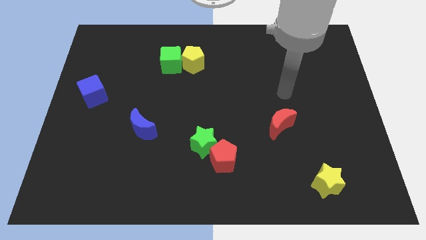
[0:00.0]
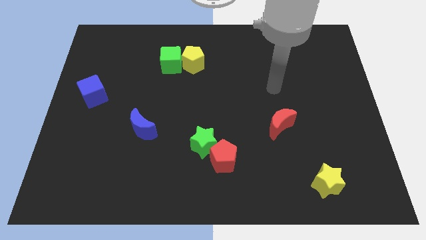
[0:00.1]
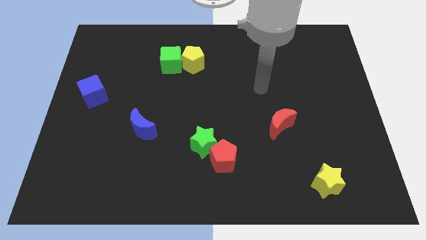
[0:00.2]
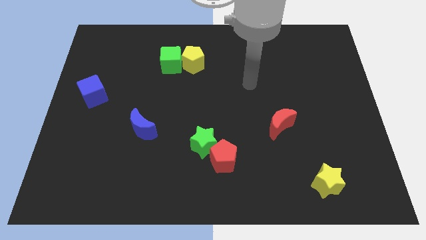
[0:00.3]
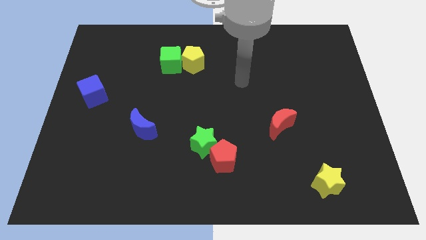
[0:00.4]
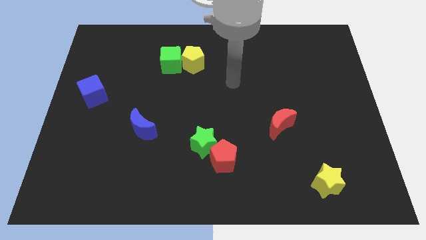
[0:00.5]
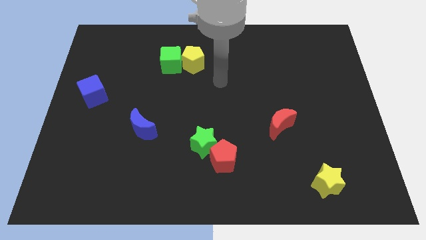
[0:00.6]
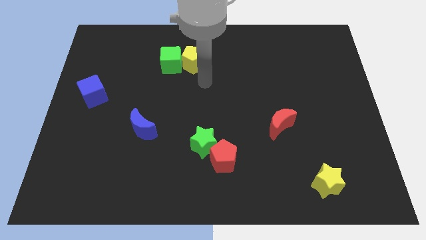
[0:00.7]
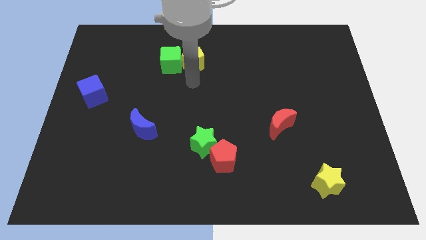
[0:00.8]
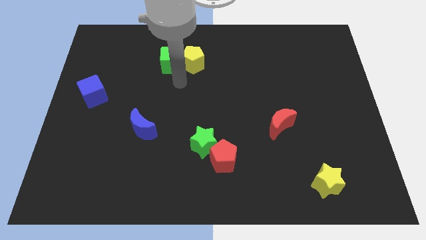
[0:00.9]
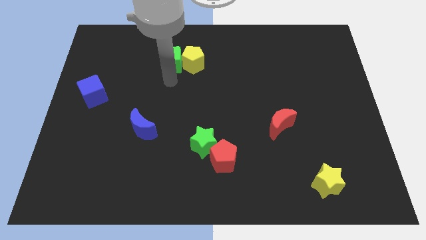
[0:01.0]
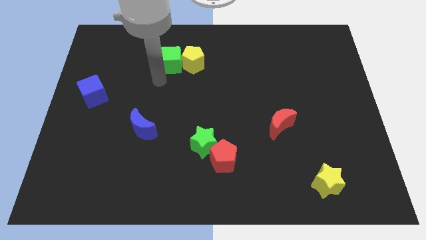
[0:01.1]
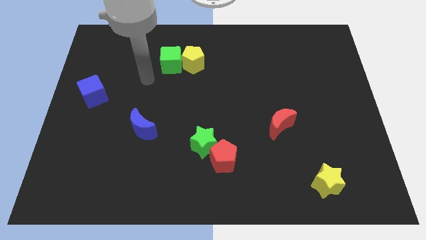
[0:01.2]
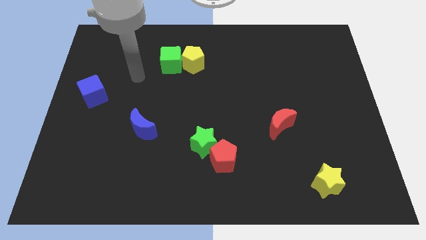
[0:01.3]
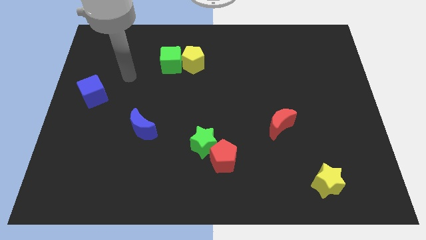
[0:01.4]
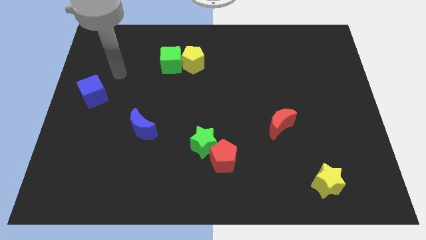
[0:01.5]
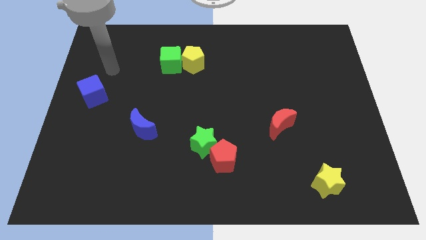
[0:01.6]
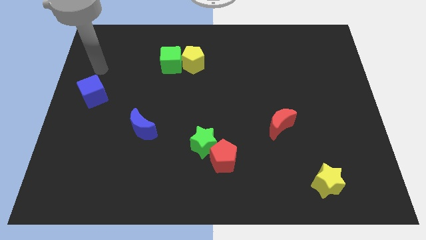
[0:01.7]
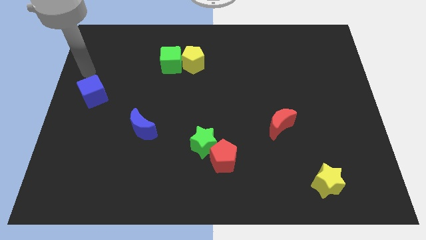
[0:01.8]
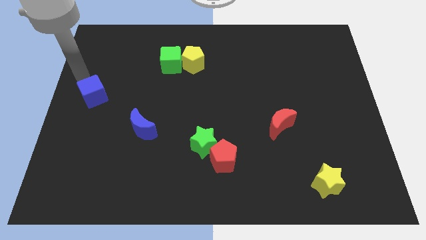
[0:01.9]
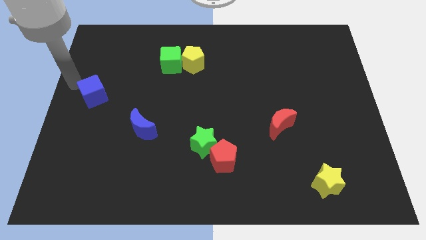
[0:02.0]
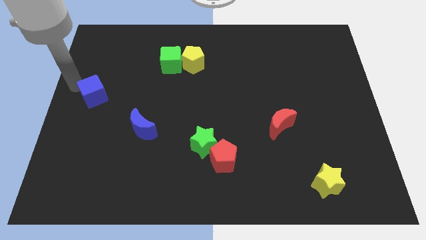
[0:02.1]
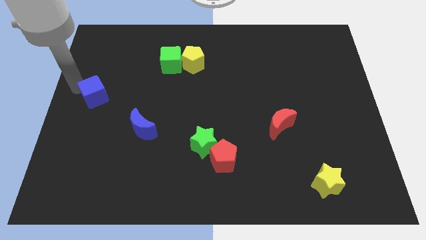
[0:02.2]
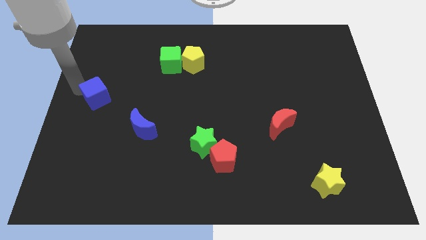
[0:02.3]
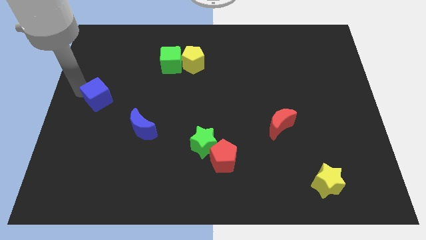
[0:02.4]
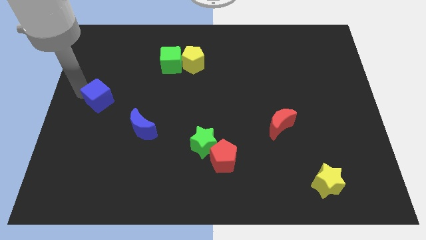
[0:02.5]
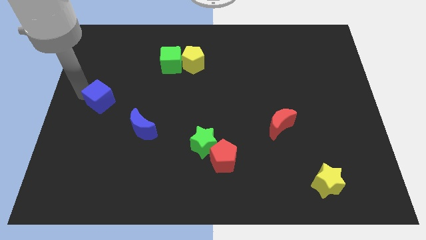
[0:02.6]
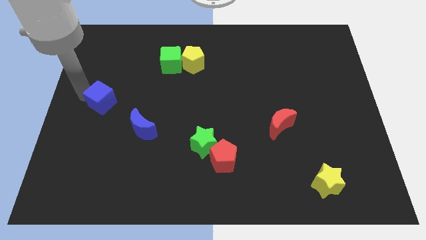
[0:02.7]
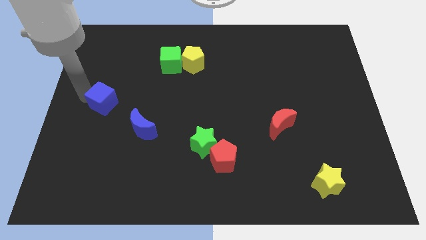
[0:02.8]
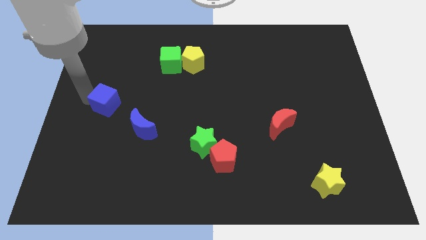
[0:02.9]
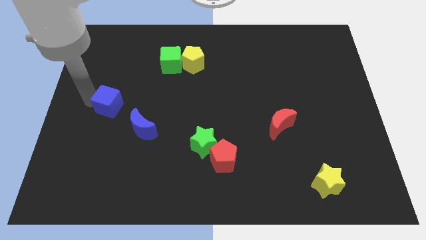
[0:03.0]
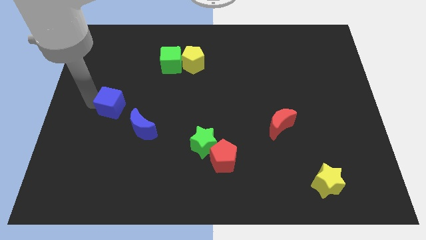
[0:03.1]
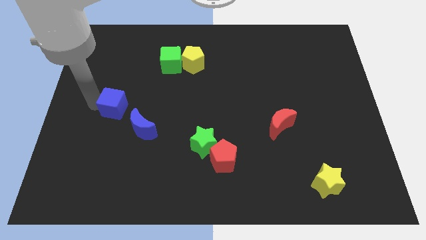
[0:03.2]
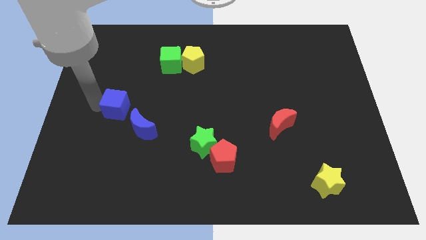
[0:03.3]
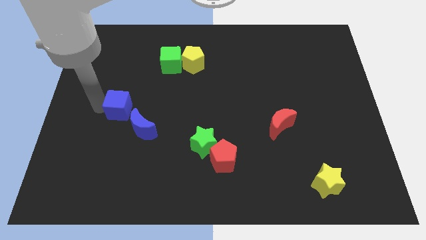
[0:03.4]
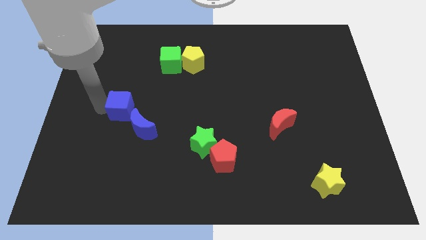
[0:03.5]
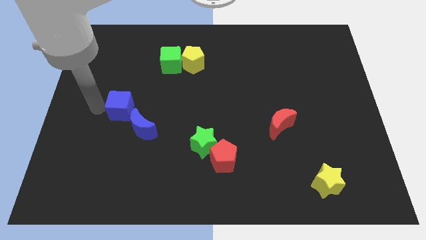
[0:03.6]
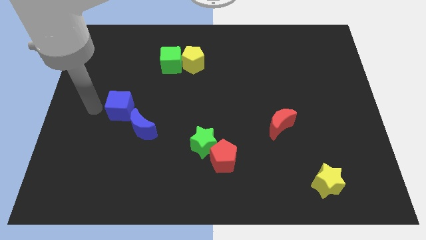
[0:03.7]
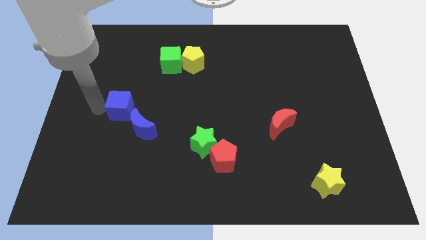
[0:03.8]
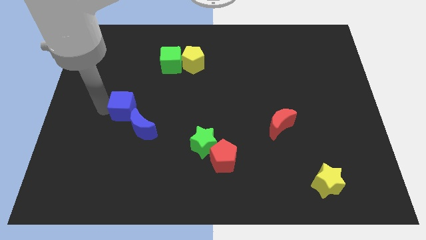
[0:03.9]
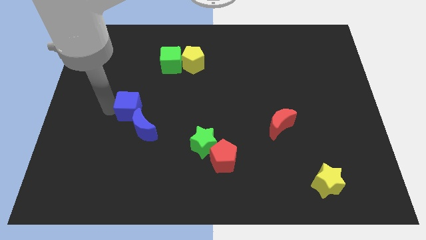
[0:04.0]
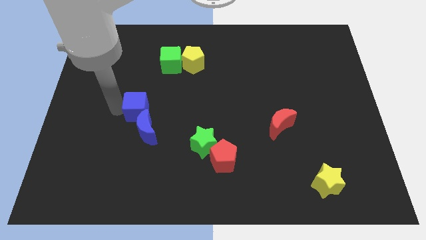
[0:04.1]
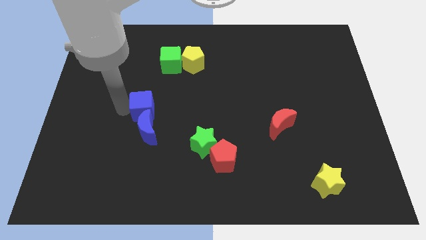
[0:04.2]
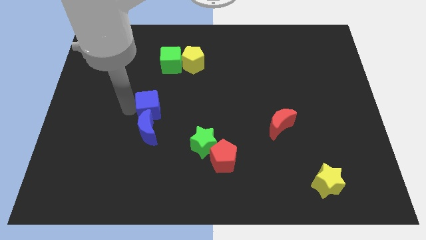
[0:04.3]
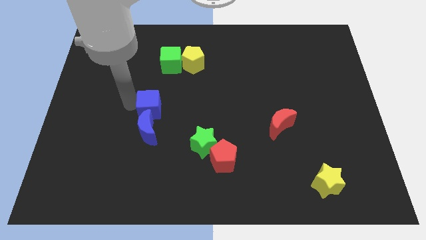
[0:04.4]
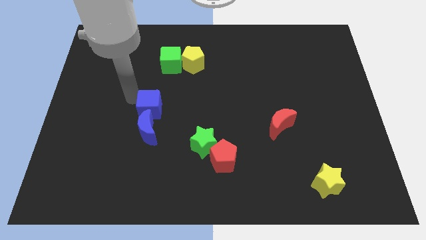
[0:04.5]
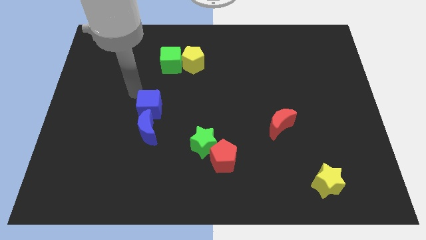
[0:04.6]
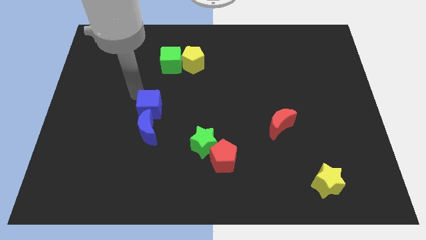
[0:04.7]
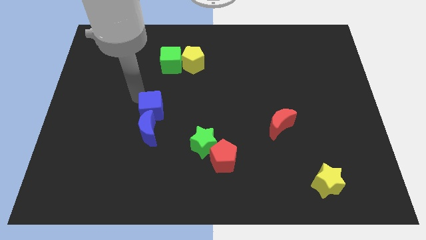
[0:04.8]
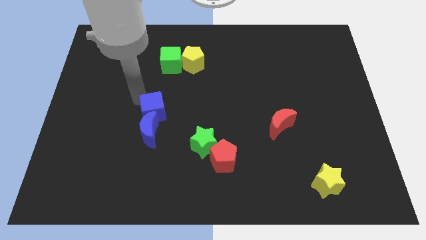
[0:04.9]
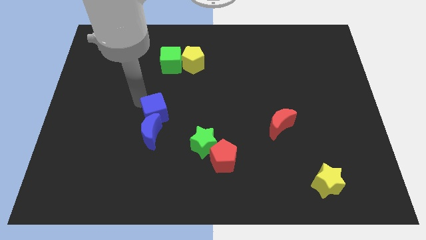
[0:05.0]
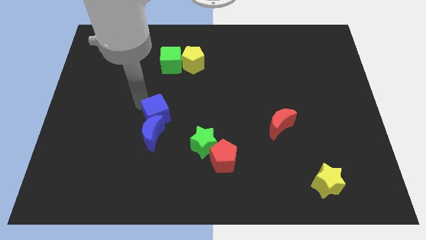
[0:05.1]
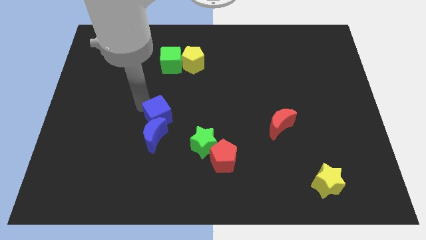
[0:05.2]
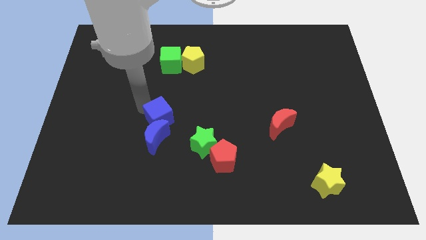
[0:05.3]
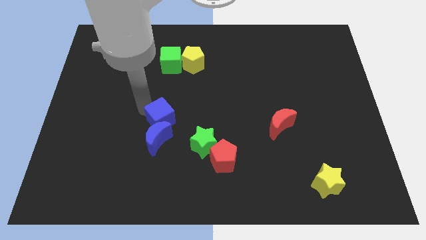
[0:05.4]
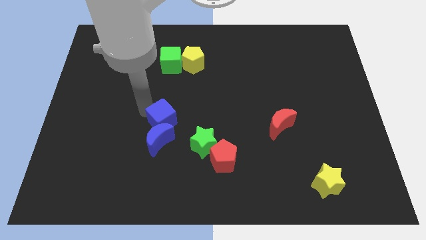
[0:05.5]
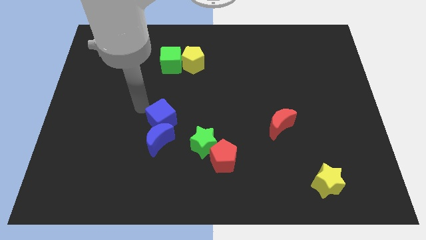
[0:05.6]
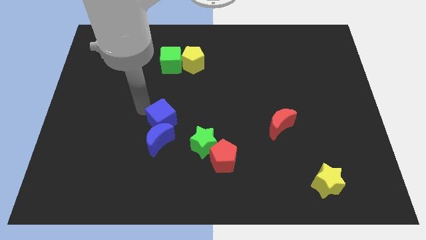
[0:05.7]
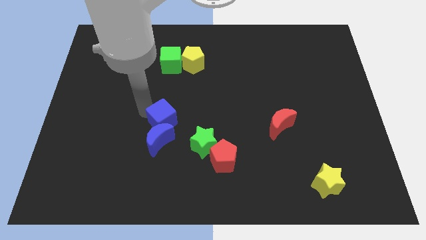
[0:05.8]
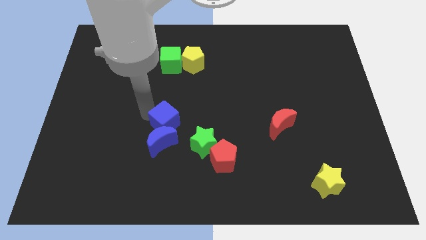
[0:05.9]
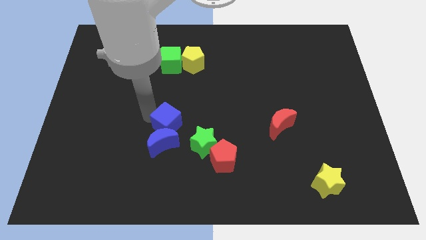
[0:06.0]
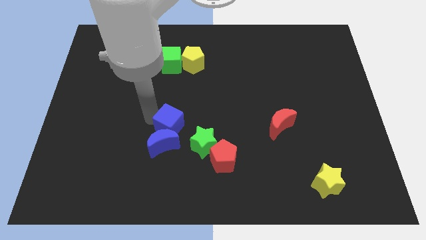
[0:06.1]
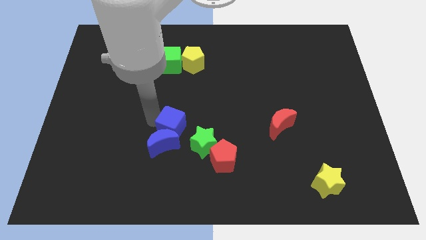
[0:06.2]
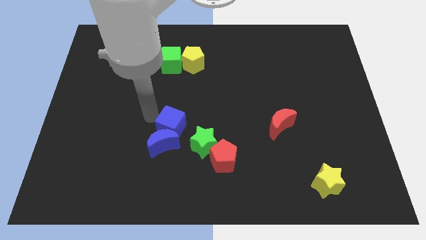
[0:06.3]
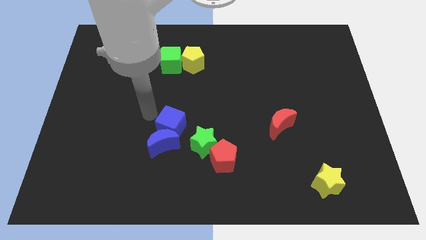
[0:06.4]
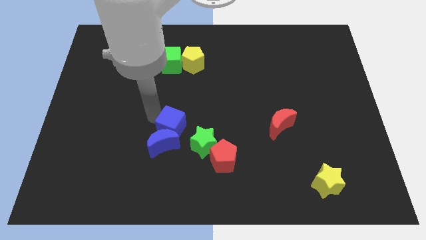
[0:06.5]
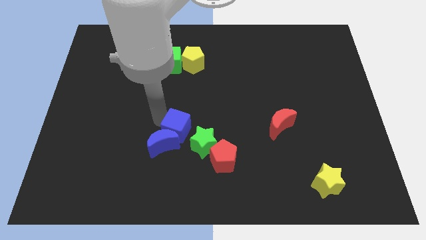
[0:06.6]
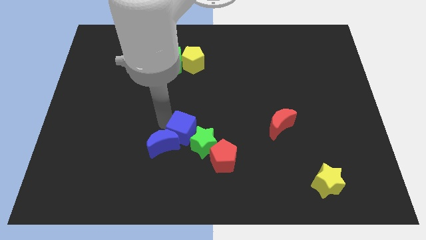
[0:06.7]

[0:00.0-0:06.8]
slide the blue cube to the green star
